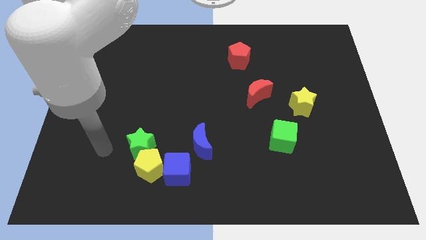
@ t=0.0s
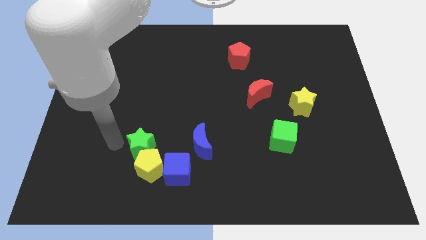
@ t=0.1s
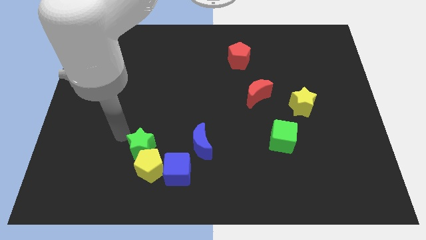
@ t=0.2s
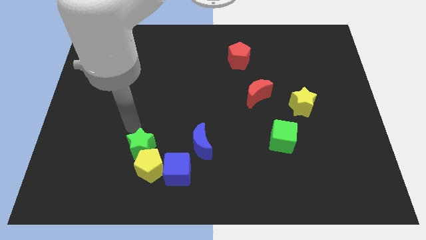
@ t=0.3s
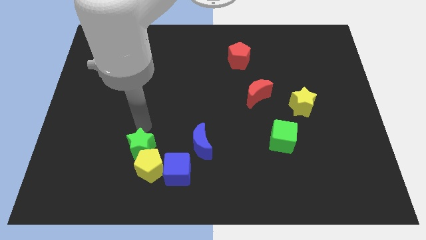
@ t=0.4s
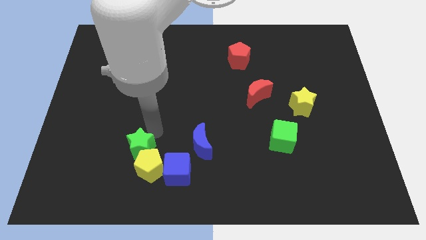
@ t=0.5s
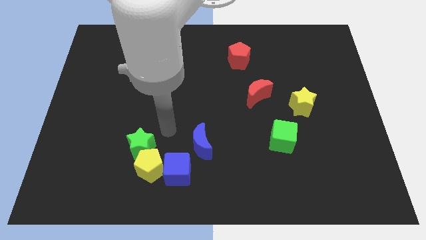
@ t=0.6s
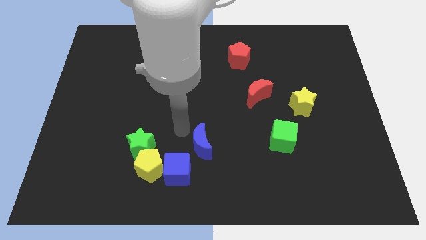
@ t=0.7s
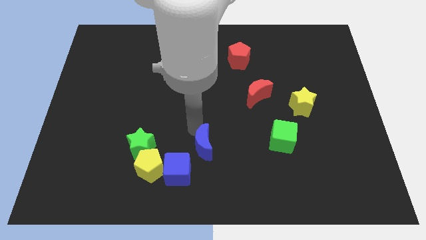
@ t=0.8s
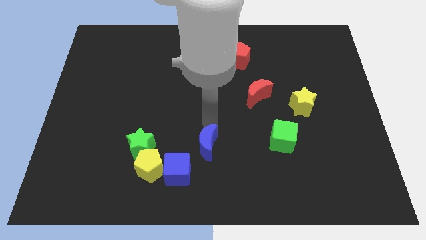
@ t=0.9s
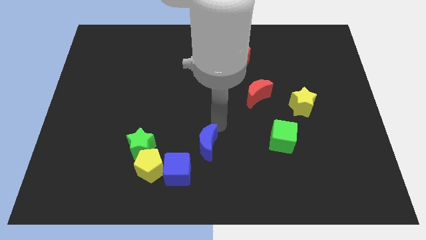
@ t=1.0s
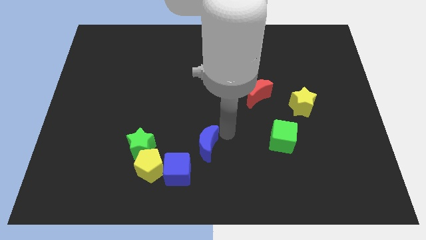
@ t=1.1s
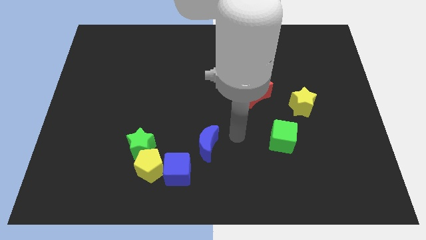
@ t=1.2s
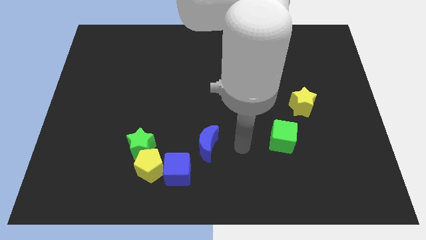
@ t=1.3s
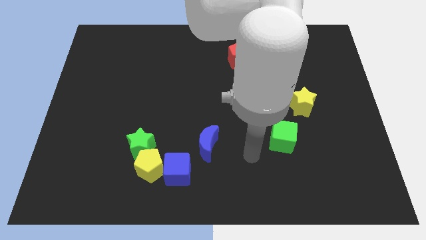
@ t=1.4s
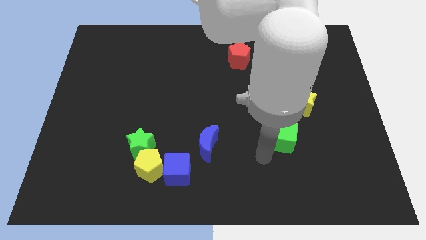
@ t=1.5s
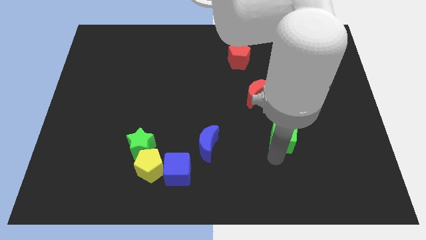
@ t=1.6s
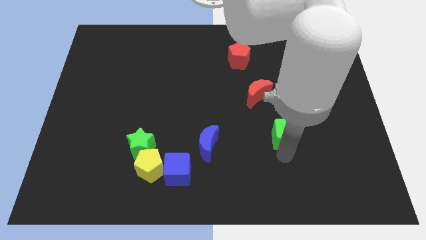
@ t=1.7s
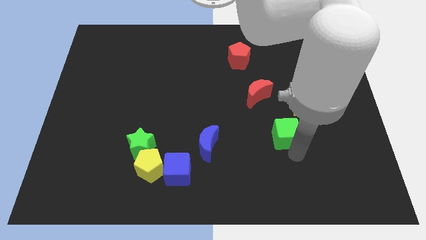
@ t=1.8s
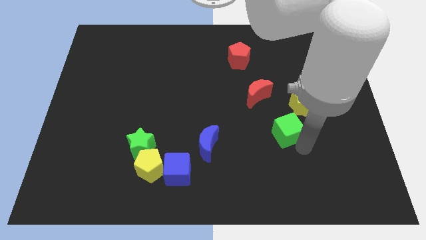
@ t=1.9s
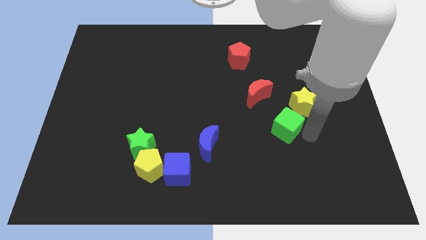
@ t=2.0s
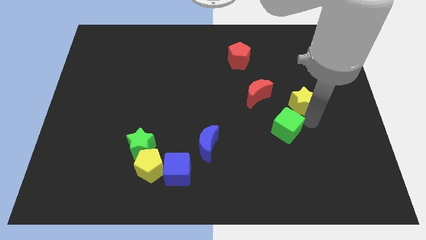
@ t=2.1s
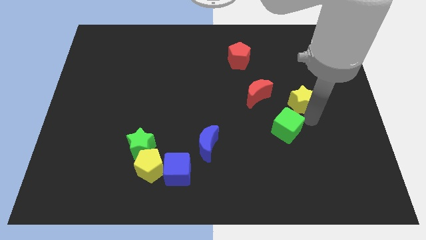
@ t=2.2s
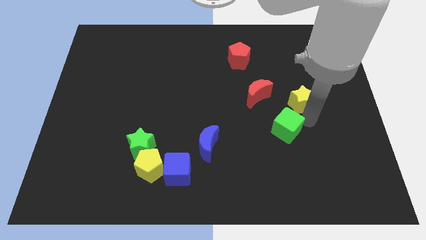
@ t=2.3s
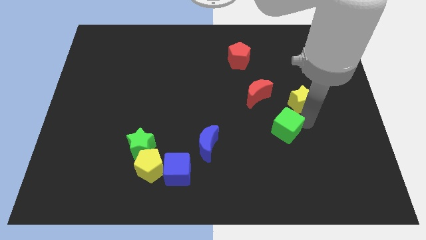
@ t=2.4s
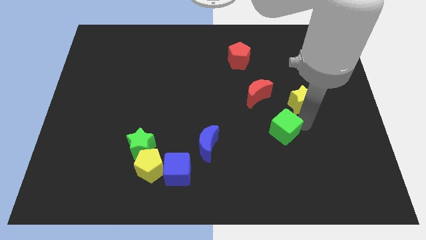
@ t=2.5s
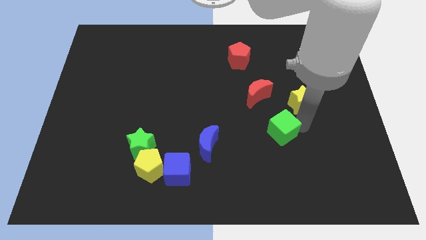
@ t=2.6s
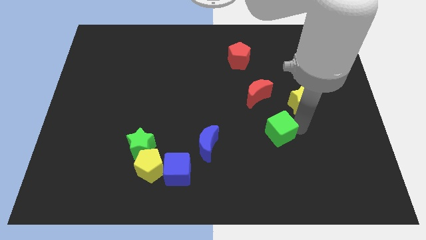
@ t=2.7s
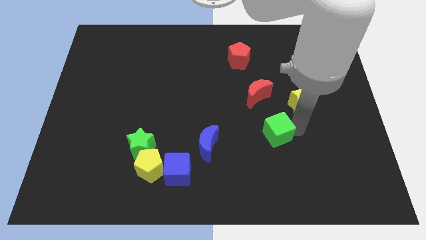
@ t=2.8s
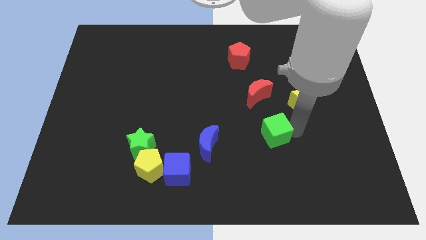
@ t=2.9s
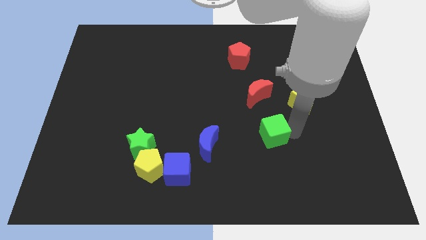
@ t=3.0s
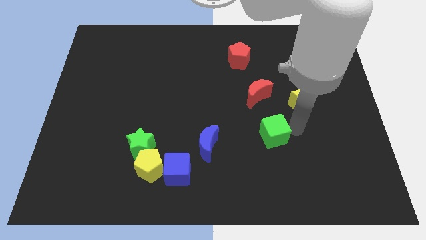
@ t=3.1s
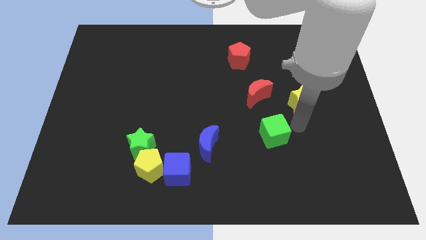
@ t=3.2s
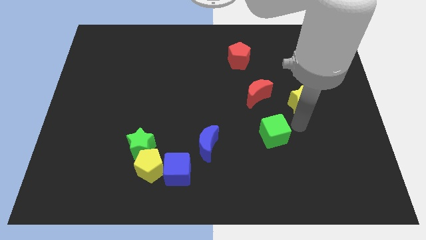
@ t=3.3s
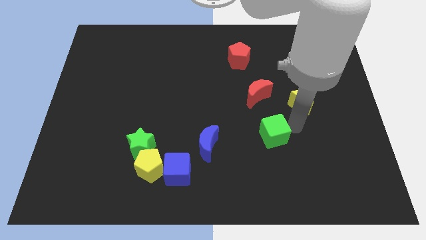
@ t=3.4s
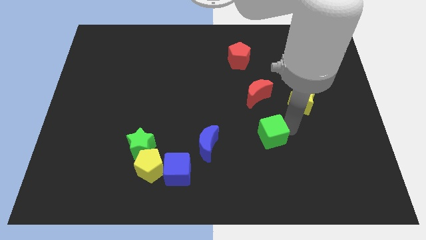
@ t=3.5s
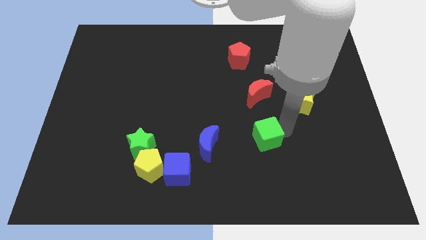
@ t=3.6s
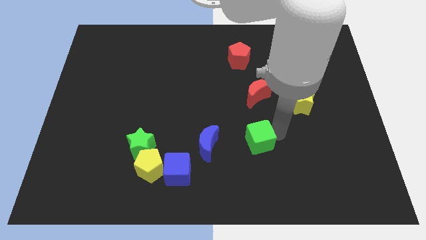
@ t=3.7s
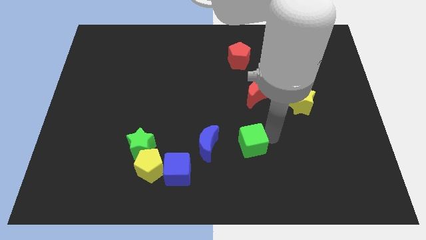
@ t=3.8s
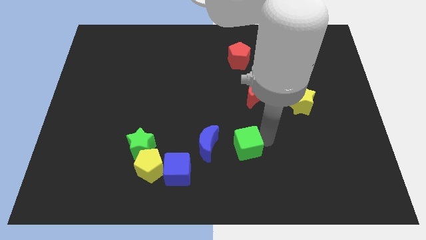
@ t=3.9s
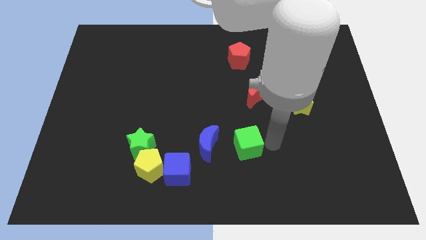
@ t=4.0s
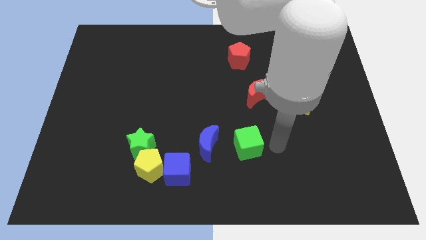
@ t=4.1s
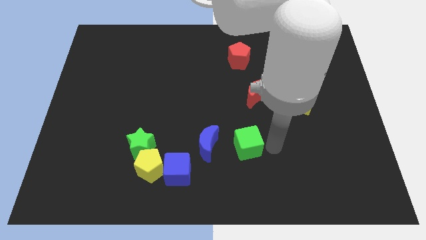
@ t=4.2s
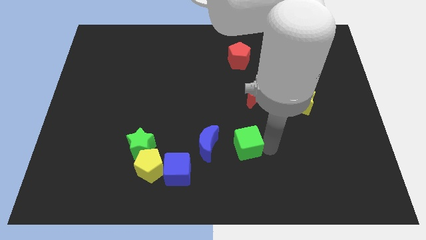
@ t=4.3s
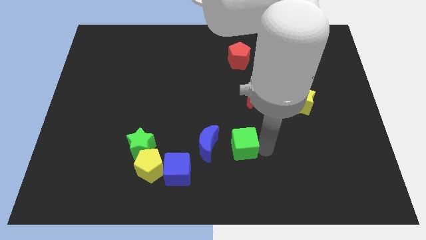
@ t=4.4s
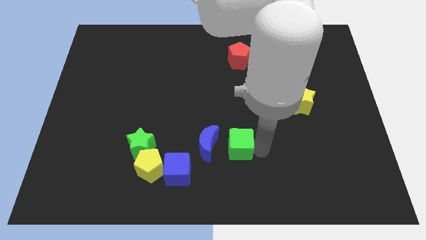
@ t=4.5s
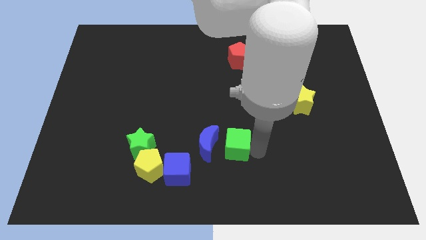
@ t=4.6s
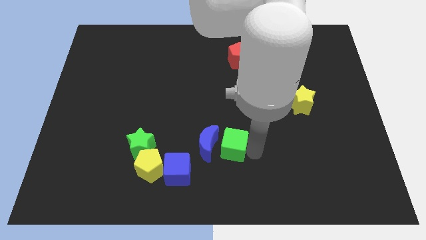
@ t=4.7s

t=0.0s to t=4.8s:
push the green cube close to the blue moon

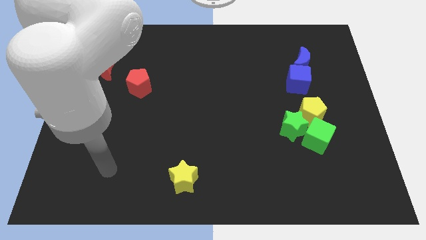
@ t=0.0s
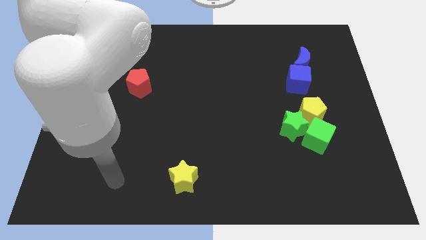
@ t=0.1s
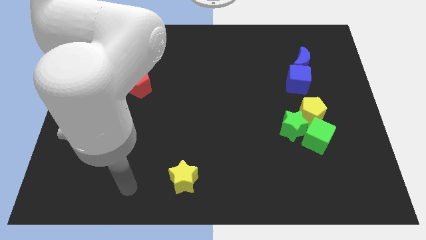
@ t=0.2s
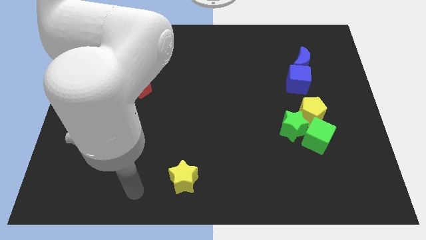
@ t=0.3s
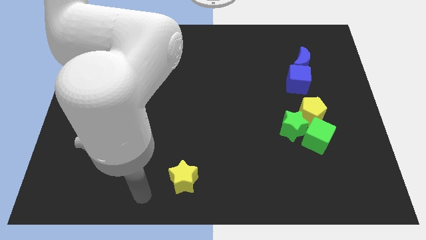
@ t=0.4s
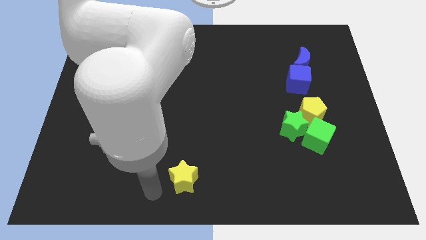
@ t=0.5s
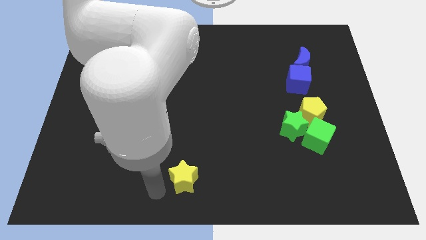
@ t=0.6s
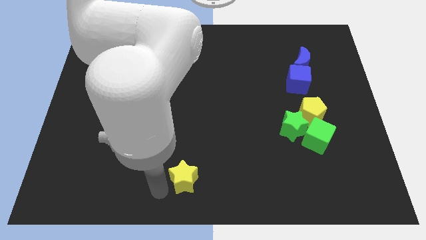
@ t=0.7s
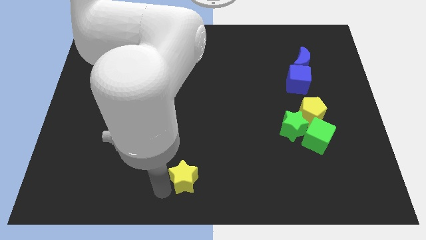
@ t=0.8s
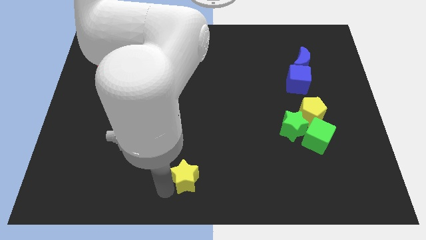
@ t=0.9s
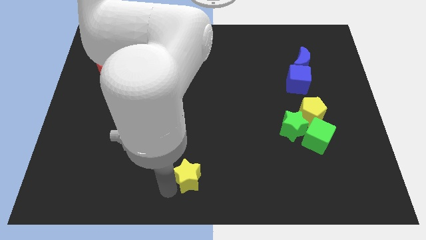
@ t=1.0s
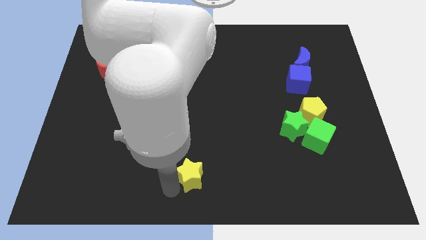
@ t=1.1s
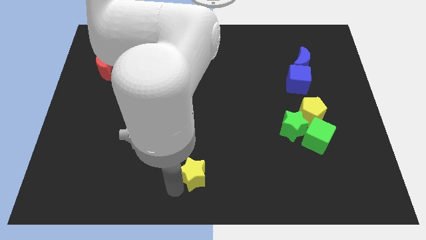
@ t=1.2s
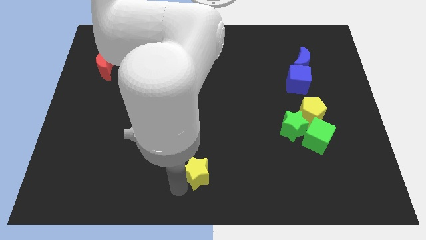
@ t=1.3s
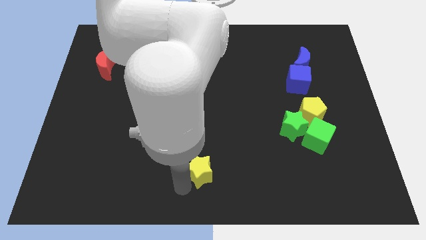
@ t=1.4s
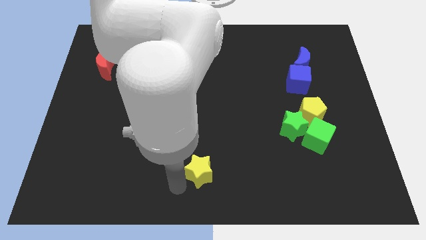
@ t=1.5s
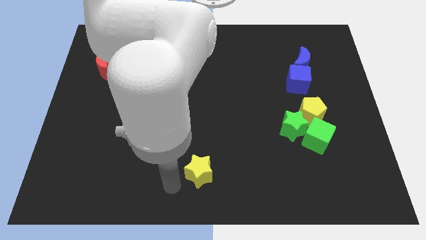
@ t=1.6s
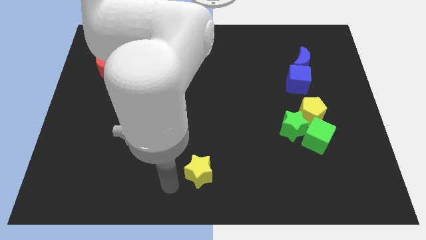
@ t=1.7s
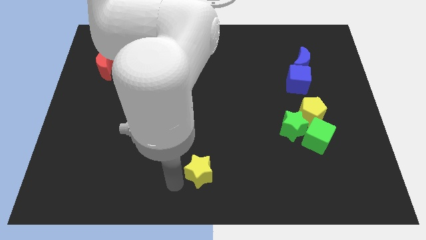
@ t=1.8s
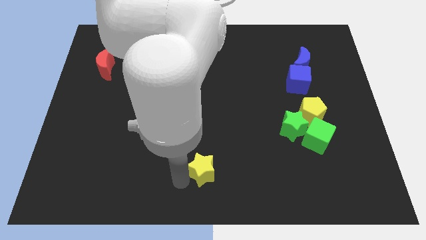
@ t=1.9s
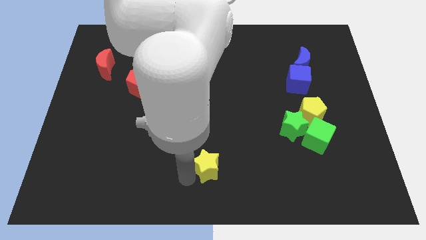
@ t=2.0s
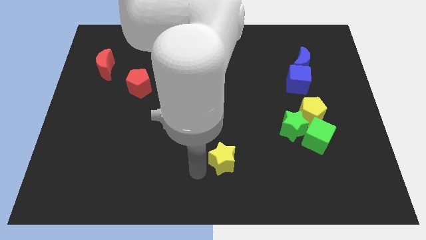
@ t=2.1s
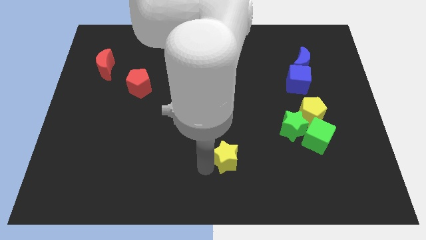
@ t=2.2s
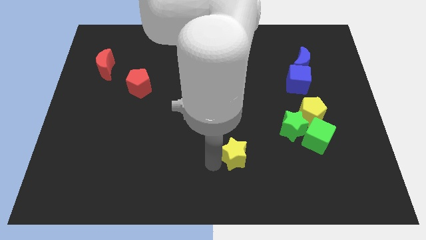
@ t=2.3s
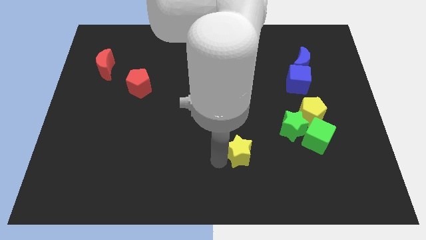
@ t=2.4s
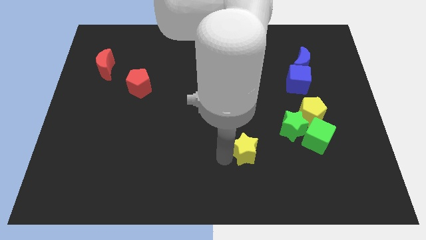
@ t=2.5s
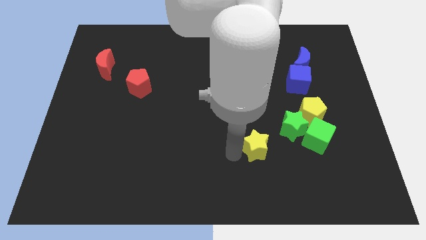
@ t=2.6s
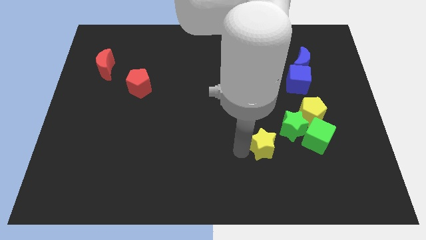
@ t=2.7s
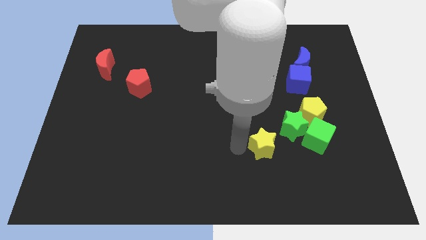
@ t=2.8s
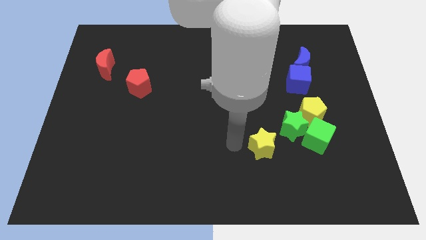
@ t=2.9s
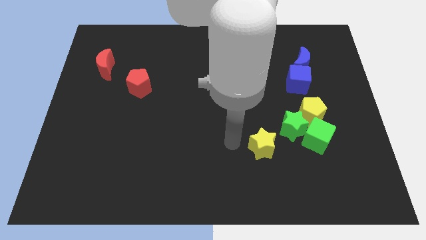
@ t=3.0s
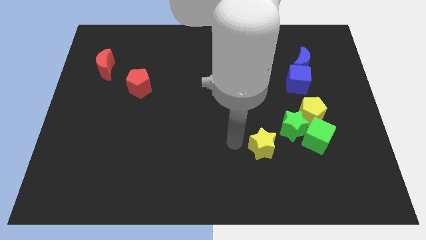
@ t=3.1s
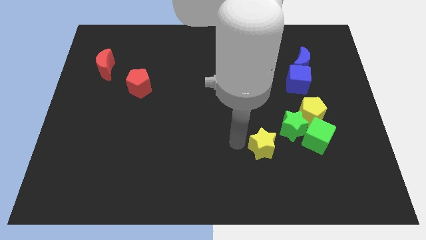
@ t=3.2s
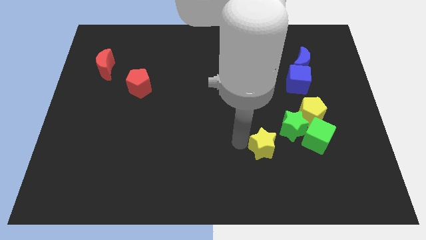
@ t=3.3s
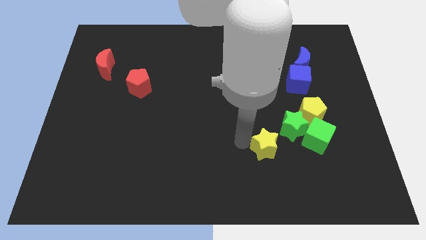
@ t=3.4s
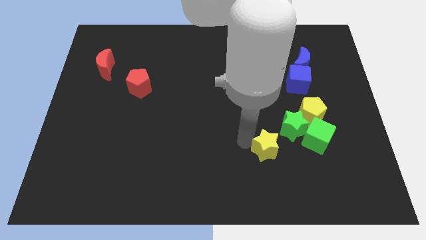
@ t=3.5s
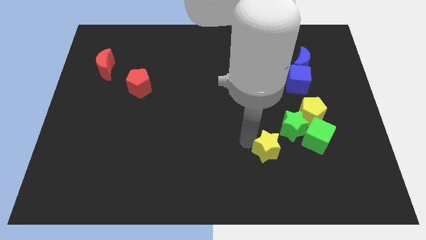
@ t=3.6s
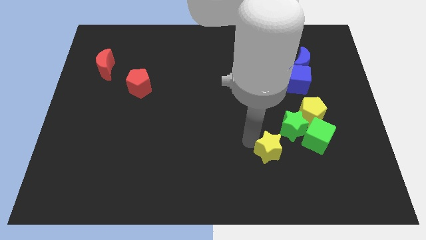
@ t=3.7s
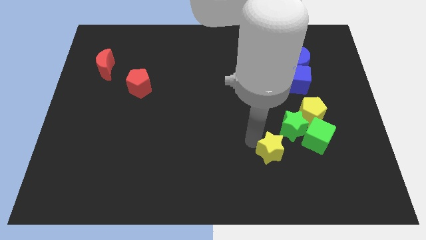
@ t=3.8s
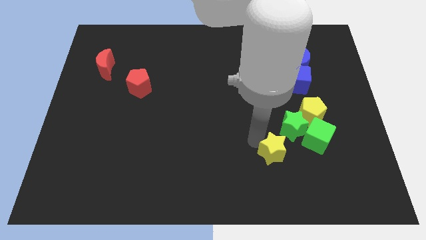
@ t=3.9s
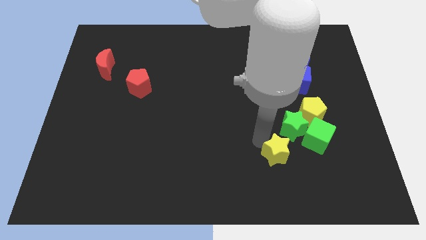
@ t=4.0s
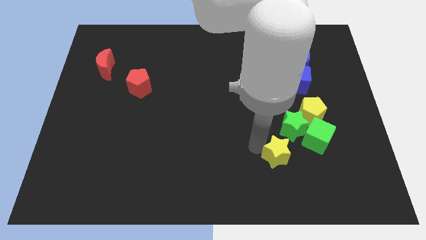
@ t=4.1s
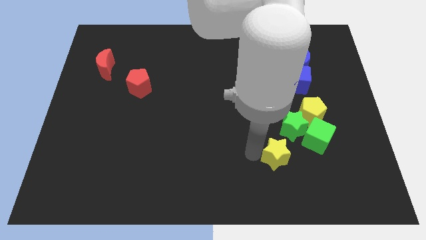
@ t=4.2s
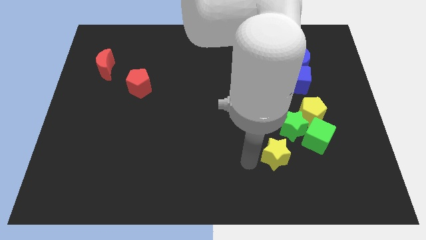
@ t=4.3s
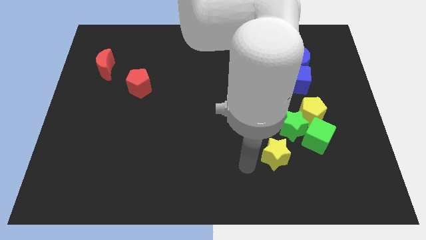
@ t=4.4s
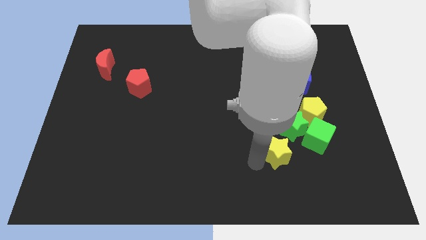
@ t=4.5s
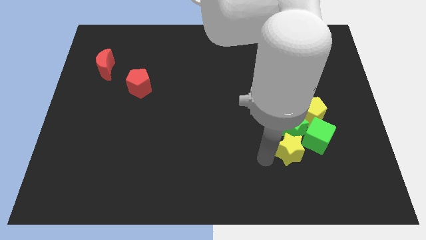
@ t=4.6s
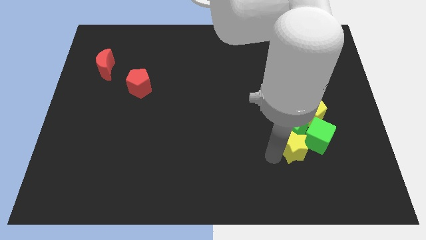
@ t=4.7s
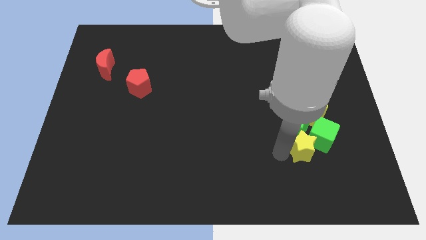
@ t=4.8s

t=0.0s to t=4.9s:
put the yellow star next to the green cube
